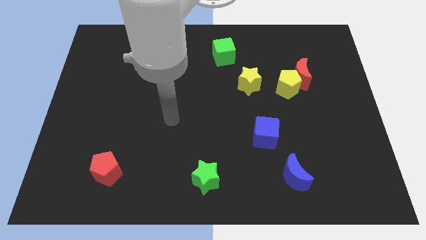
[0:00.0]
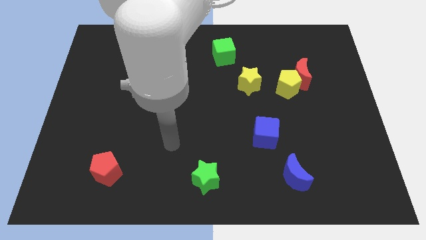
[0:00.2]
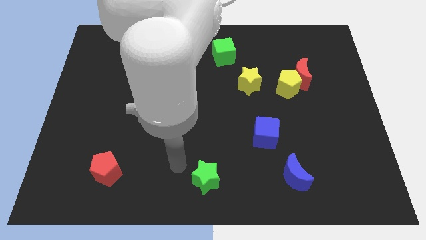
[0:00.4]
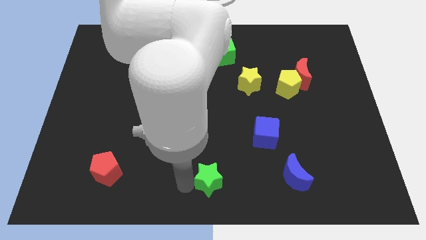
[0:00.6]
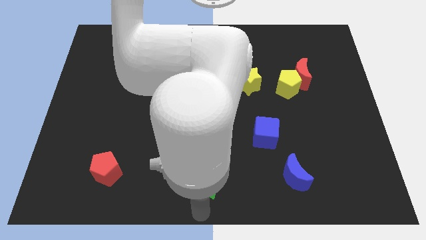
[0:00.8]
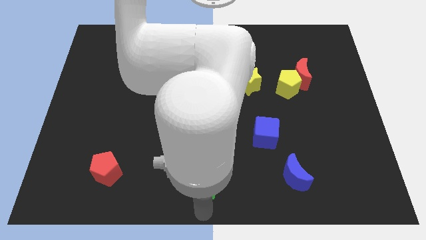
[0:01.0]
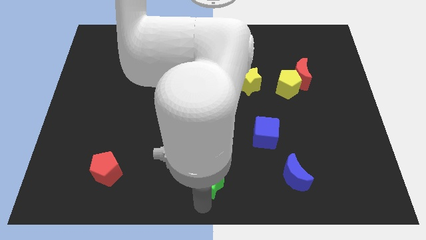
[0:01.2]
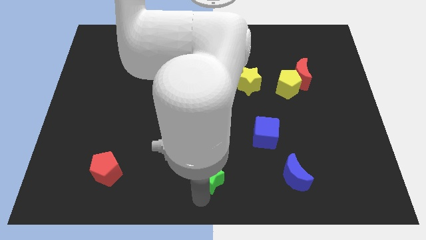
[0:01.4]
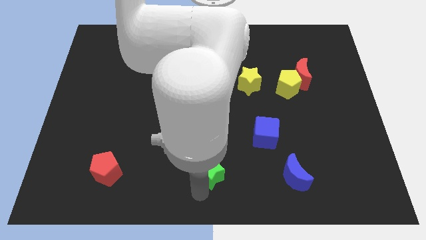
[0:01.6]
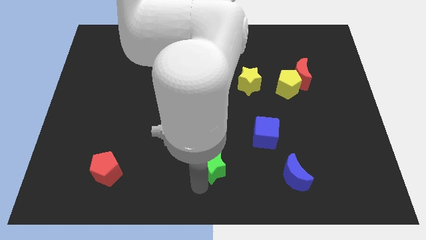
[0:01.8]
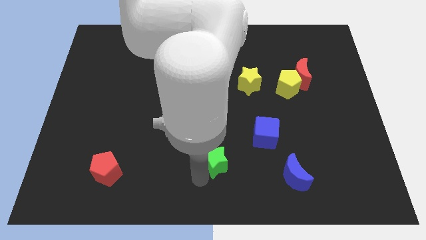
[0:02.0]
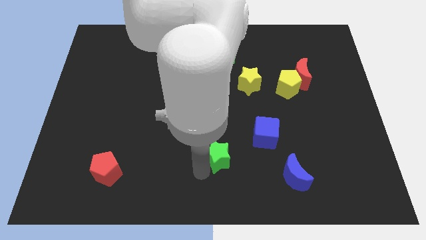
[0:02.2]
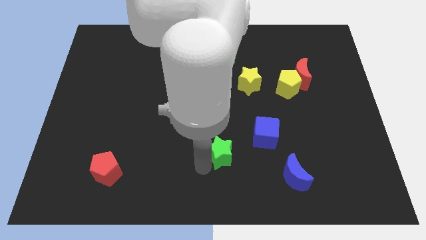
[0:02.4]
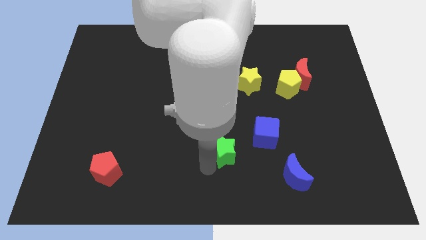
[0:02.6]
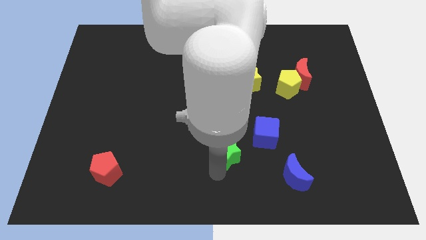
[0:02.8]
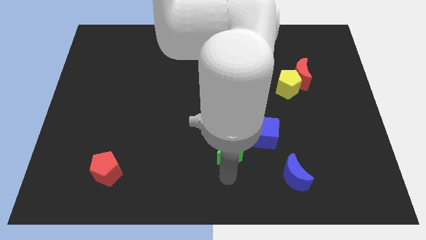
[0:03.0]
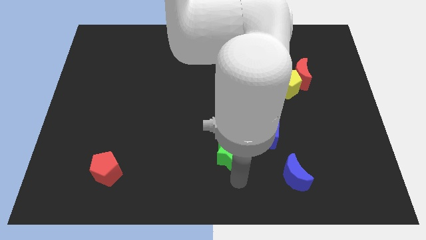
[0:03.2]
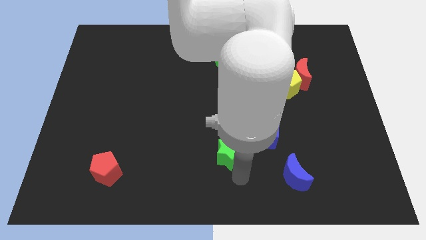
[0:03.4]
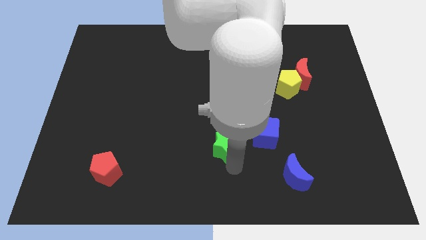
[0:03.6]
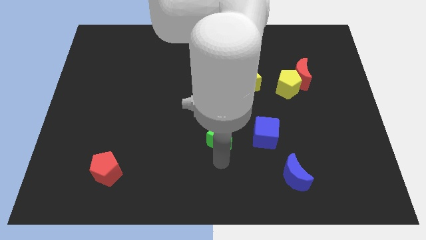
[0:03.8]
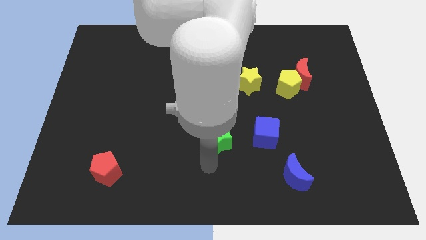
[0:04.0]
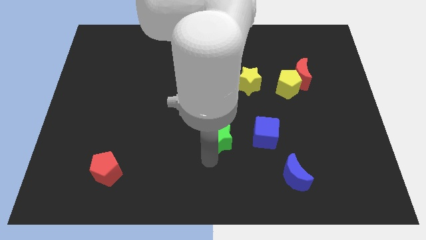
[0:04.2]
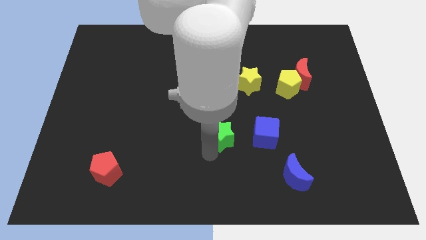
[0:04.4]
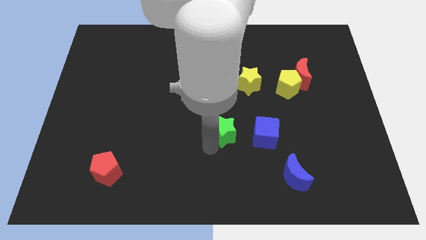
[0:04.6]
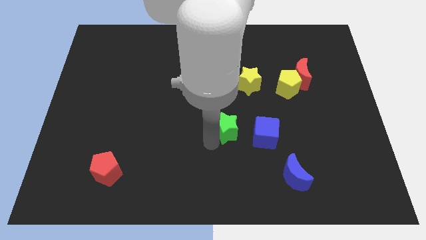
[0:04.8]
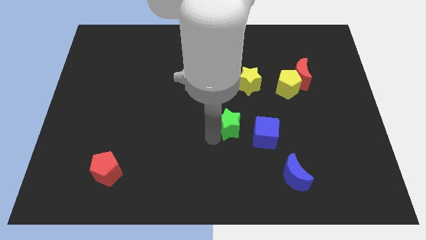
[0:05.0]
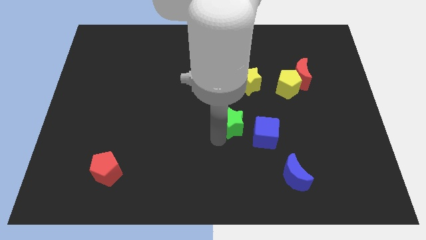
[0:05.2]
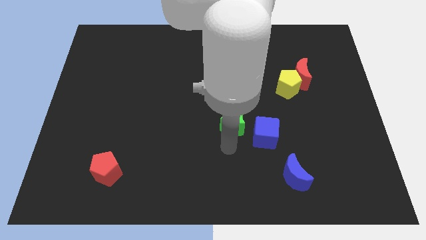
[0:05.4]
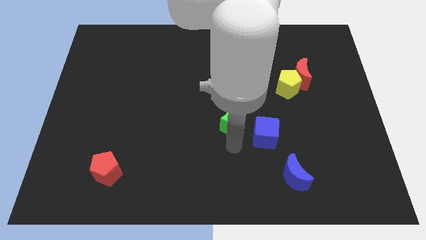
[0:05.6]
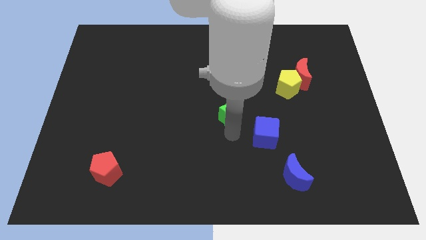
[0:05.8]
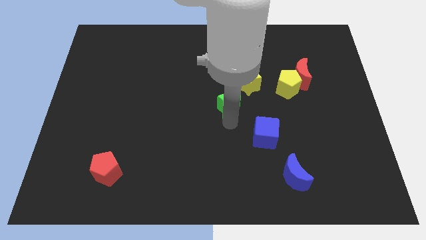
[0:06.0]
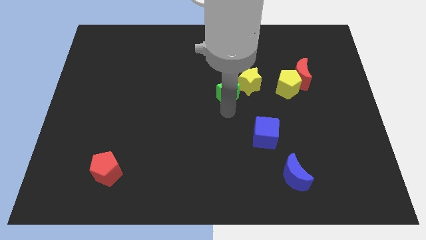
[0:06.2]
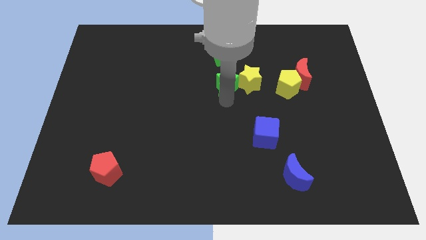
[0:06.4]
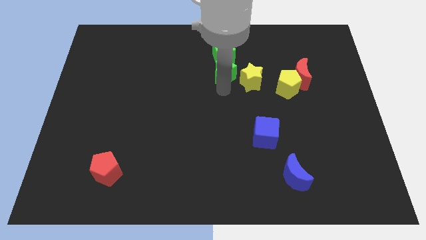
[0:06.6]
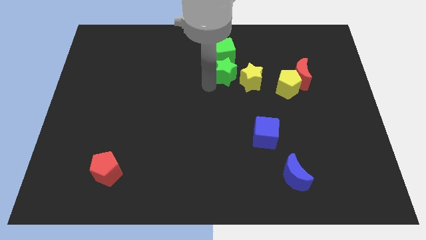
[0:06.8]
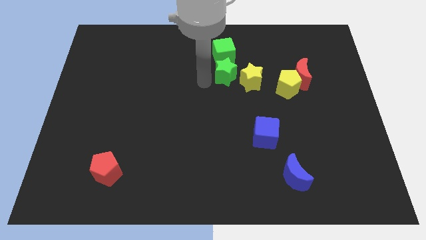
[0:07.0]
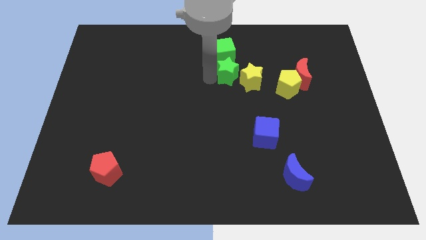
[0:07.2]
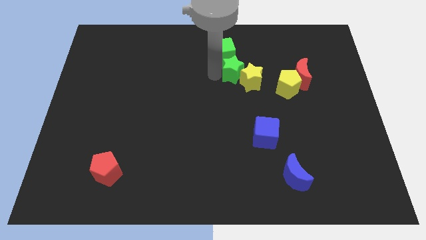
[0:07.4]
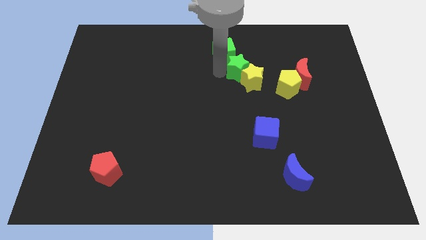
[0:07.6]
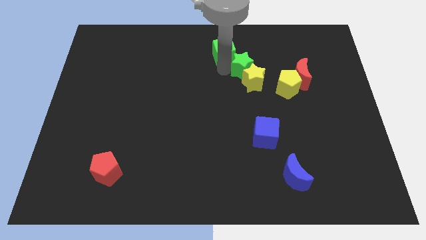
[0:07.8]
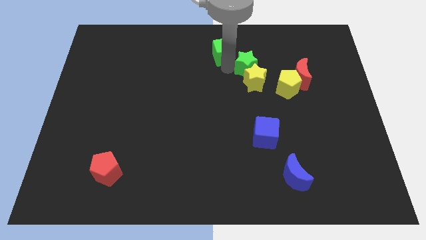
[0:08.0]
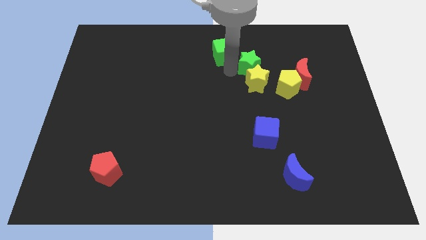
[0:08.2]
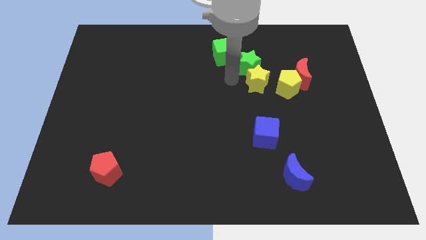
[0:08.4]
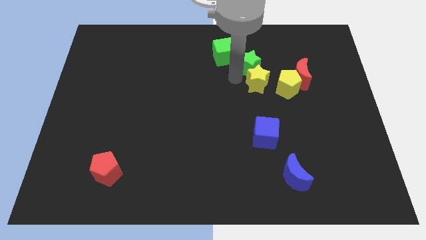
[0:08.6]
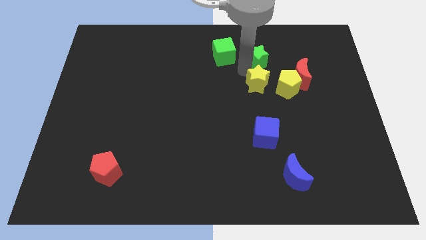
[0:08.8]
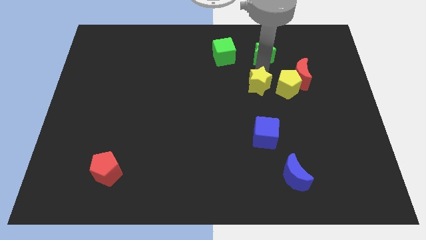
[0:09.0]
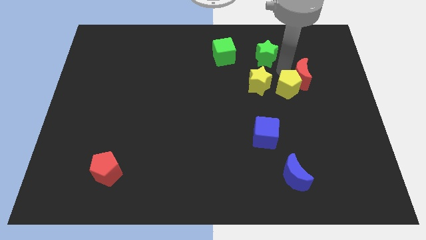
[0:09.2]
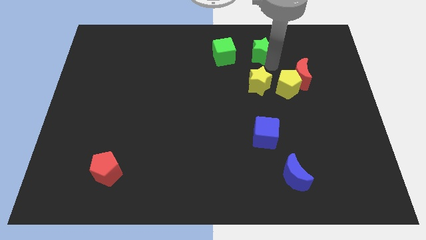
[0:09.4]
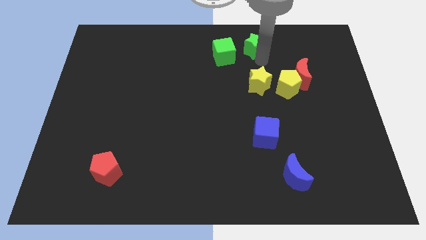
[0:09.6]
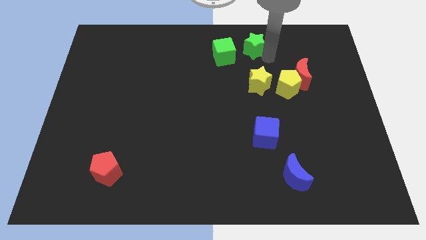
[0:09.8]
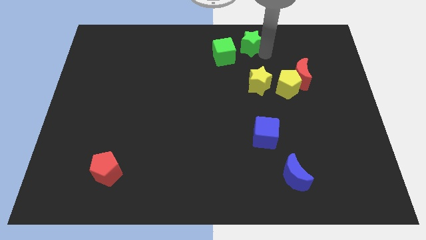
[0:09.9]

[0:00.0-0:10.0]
put the green star to the top

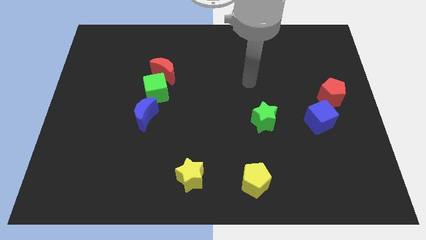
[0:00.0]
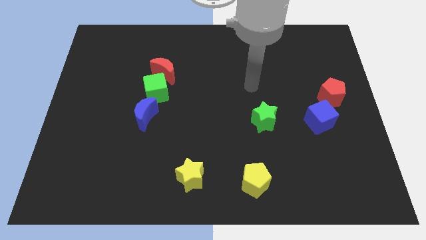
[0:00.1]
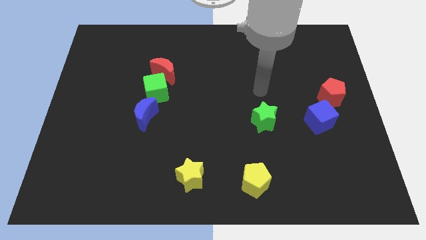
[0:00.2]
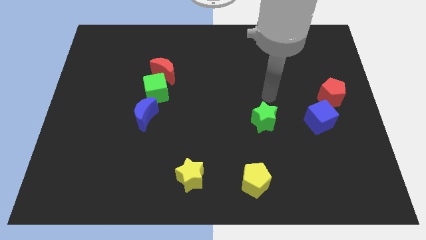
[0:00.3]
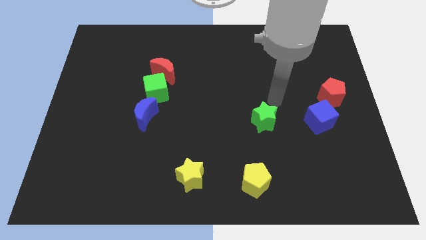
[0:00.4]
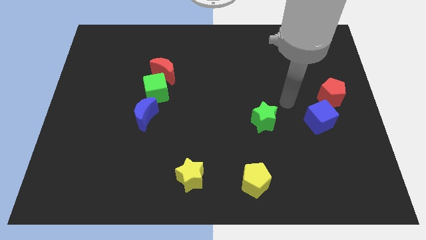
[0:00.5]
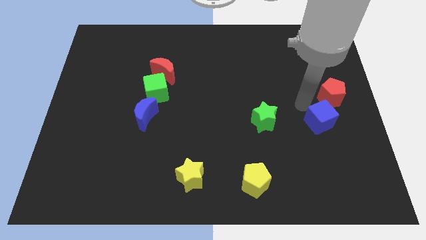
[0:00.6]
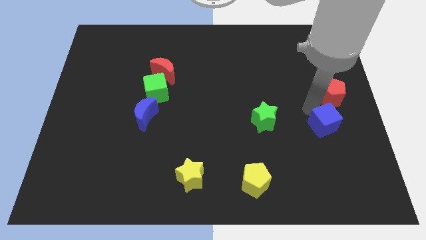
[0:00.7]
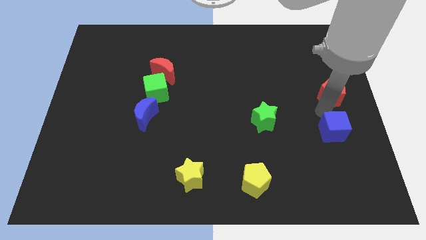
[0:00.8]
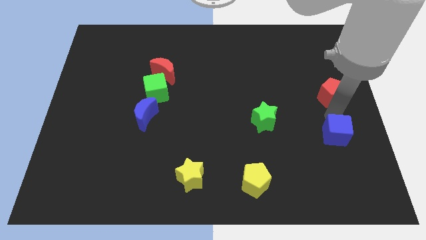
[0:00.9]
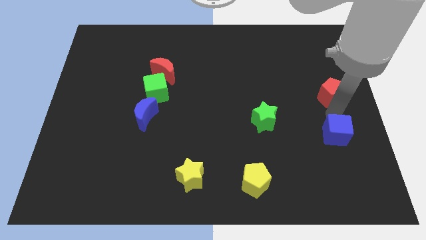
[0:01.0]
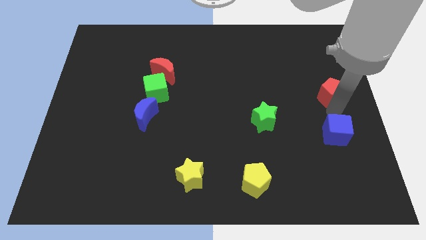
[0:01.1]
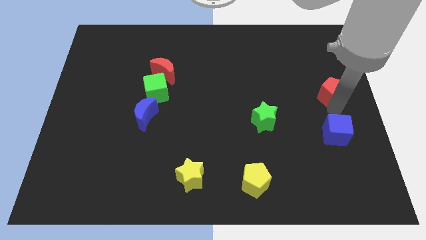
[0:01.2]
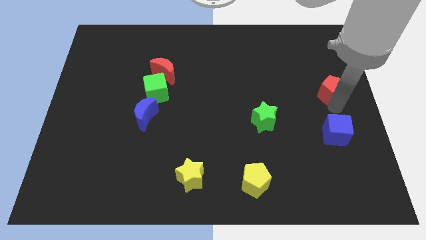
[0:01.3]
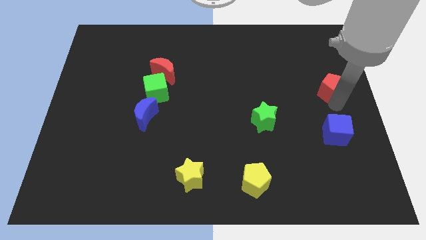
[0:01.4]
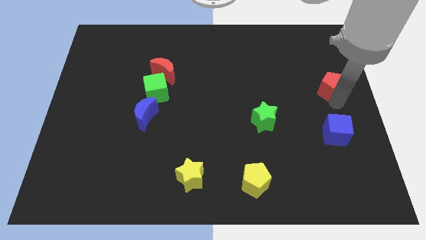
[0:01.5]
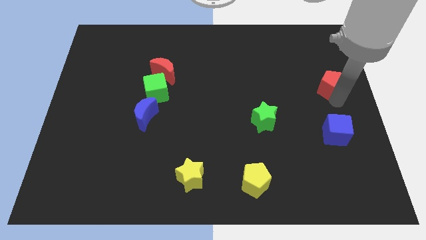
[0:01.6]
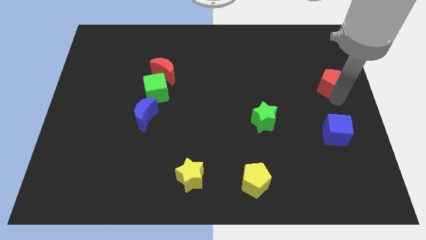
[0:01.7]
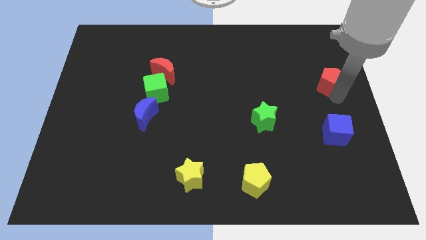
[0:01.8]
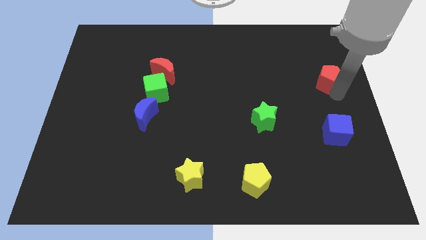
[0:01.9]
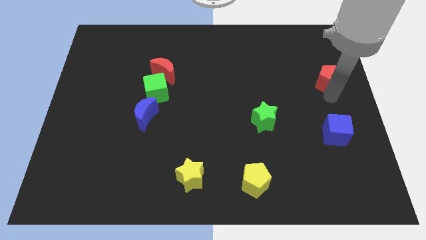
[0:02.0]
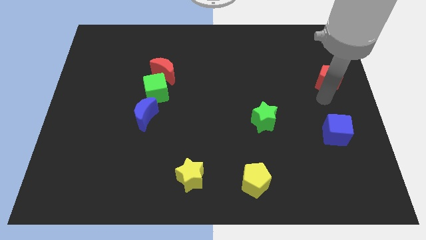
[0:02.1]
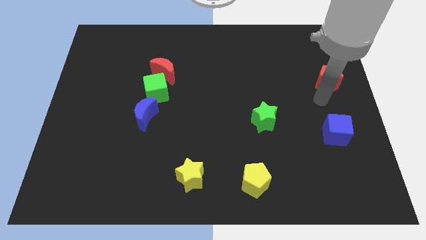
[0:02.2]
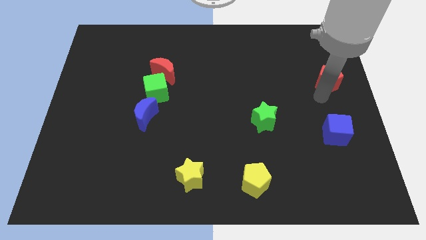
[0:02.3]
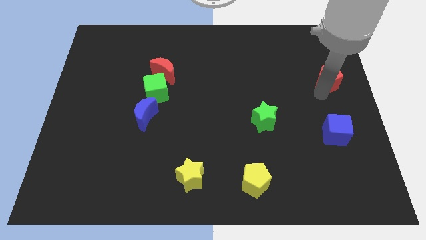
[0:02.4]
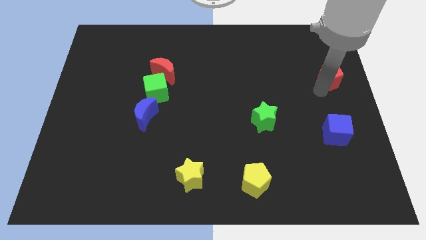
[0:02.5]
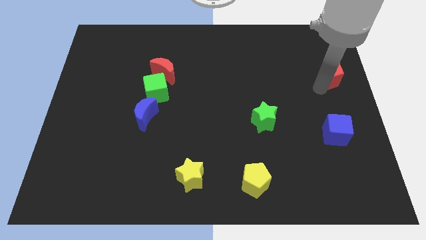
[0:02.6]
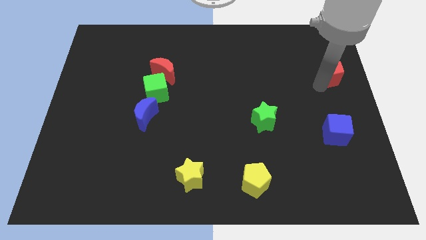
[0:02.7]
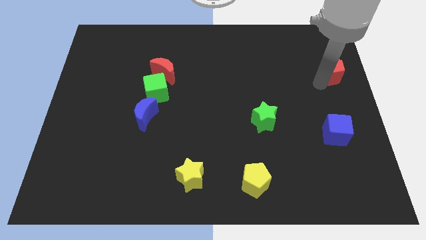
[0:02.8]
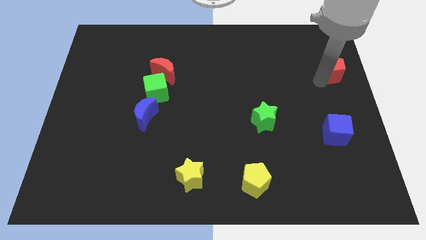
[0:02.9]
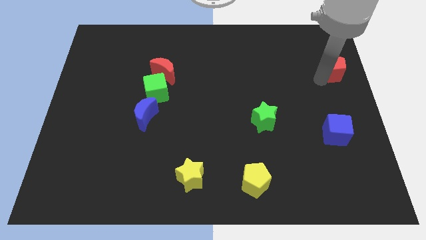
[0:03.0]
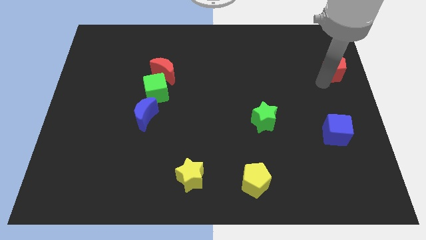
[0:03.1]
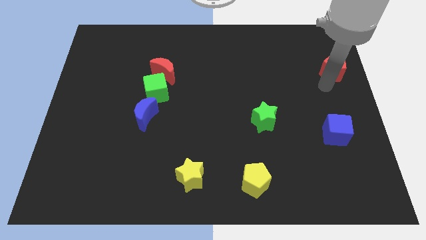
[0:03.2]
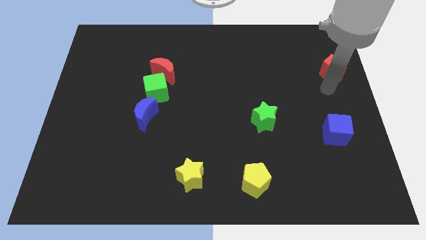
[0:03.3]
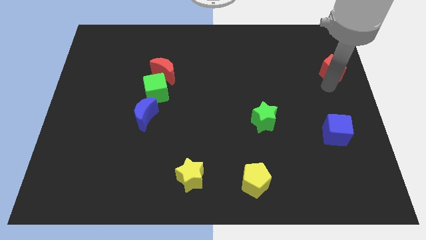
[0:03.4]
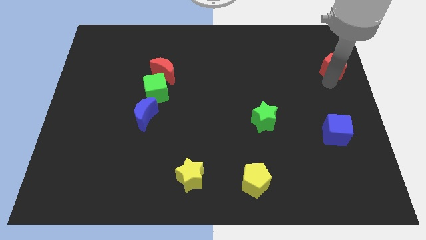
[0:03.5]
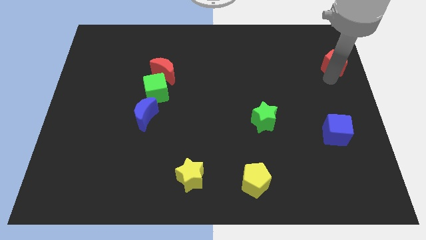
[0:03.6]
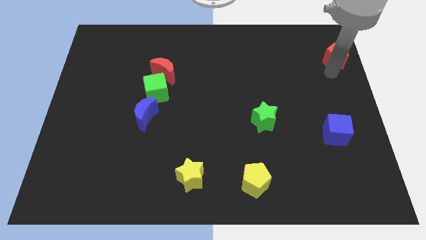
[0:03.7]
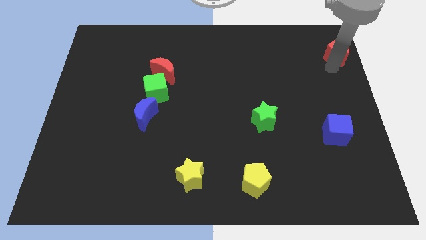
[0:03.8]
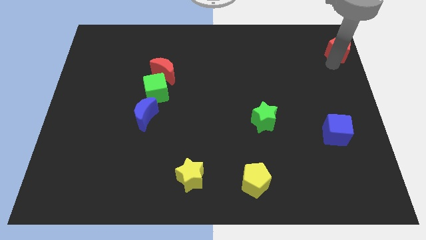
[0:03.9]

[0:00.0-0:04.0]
push the red pentagon to the top right
